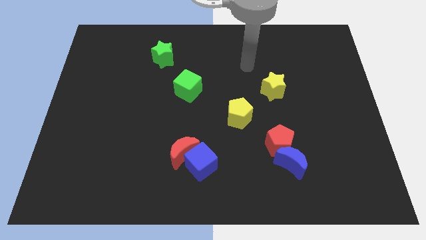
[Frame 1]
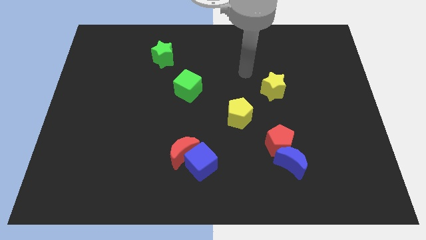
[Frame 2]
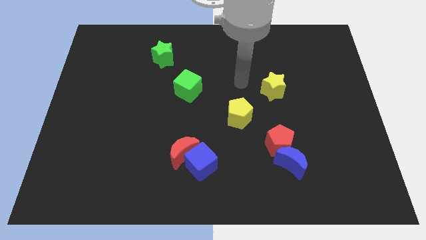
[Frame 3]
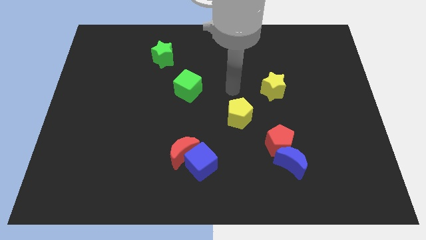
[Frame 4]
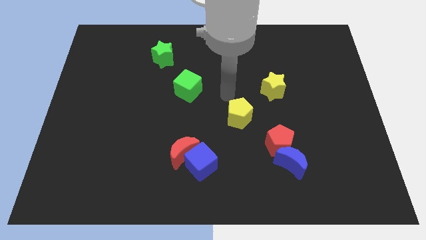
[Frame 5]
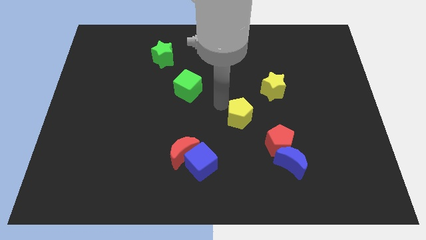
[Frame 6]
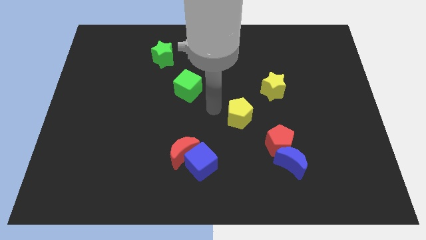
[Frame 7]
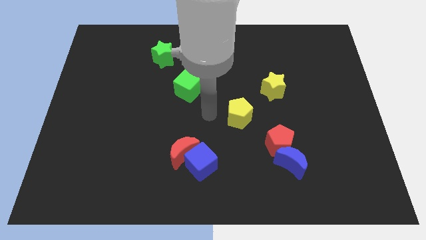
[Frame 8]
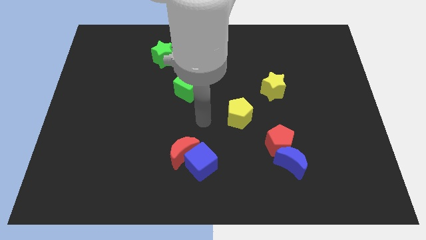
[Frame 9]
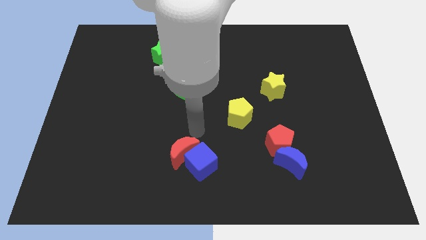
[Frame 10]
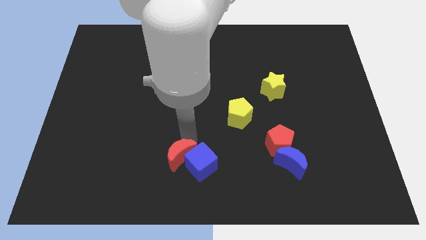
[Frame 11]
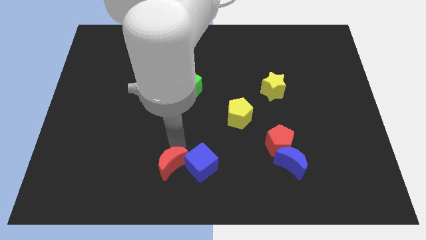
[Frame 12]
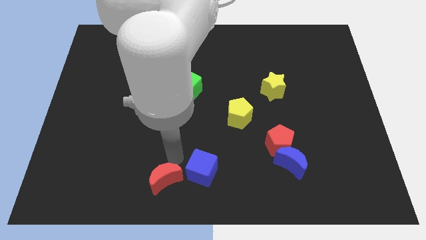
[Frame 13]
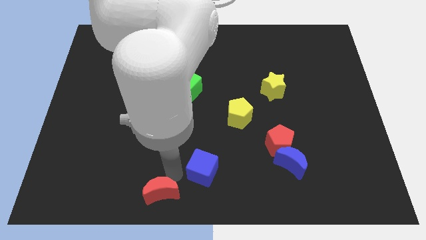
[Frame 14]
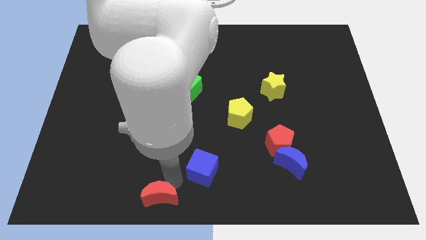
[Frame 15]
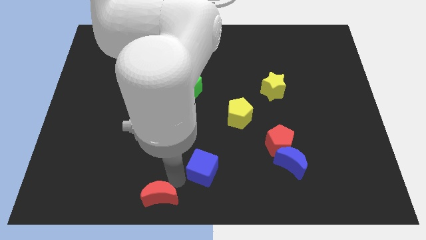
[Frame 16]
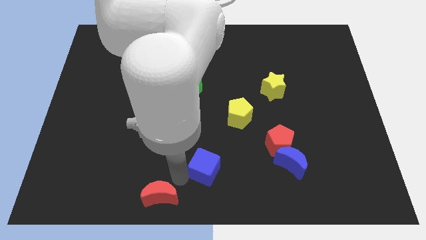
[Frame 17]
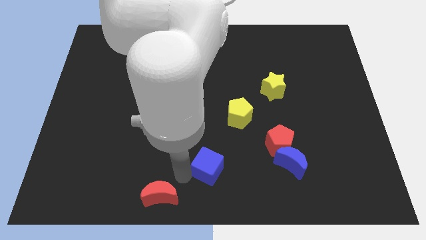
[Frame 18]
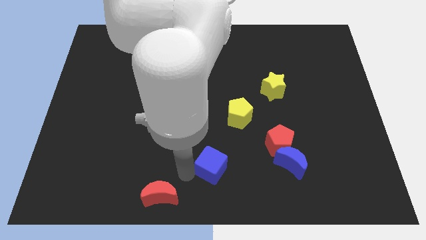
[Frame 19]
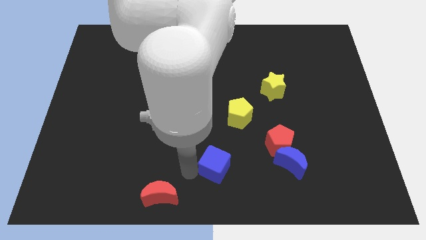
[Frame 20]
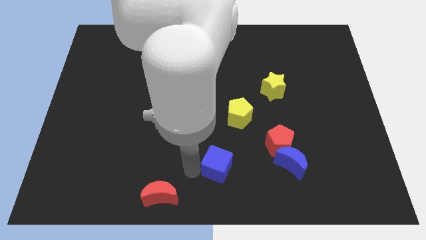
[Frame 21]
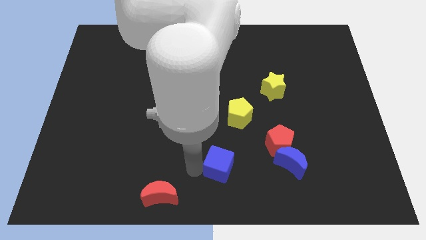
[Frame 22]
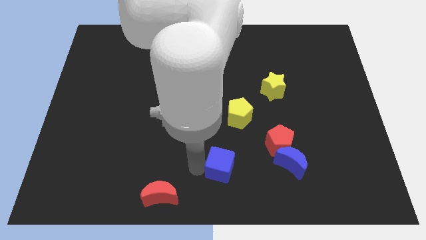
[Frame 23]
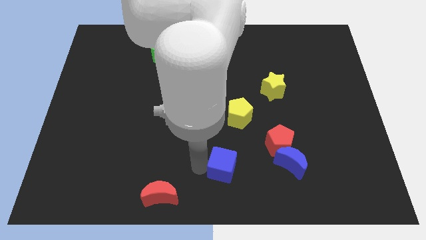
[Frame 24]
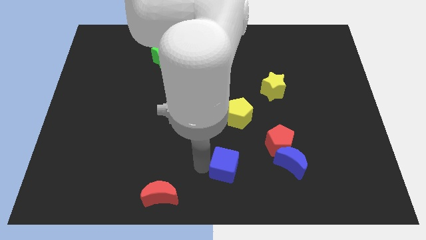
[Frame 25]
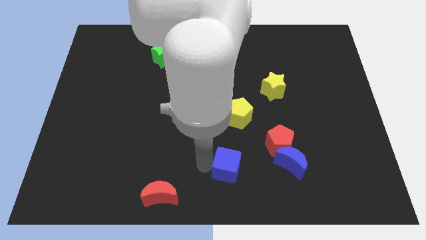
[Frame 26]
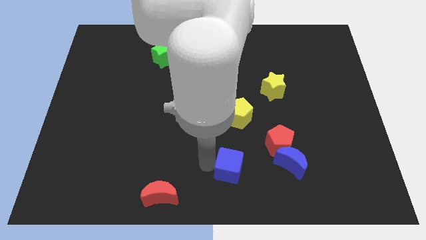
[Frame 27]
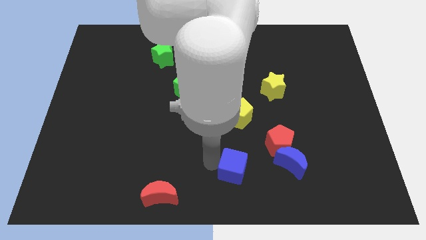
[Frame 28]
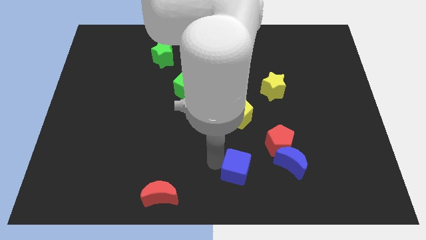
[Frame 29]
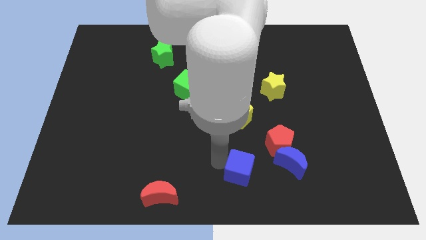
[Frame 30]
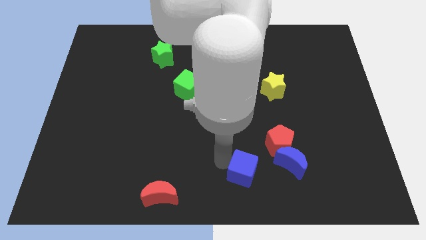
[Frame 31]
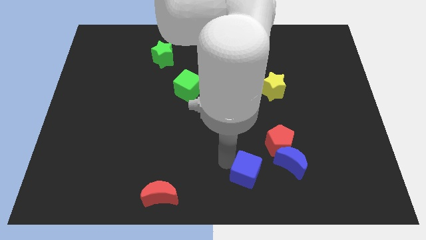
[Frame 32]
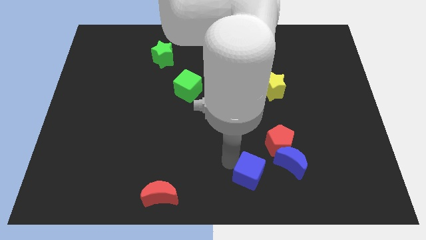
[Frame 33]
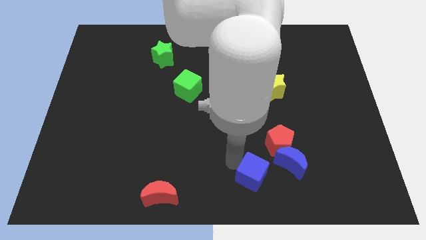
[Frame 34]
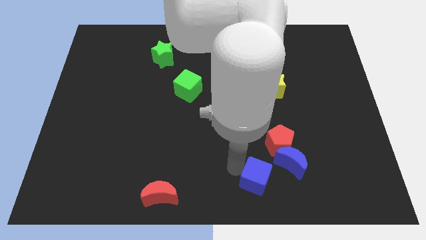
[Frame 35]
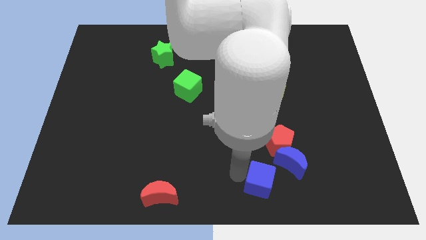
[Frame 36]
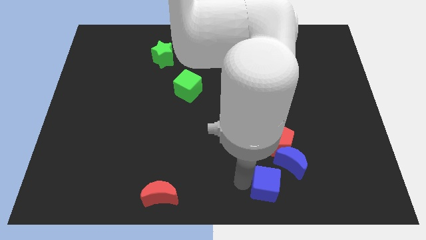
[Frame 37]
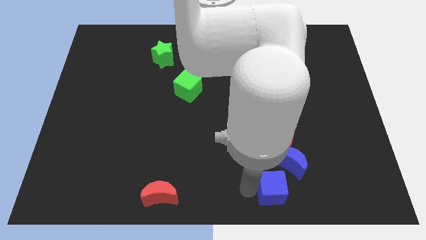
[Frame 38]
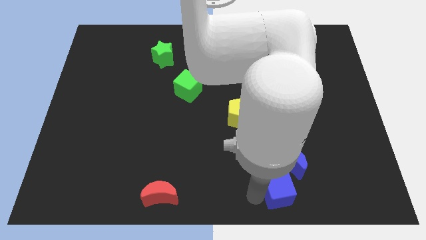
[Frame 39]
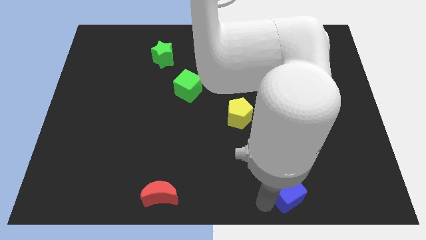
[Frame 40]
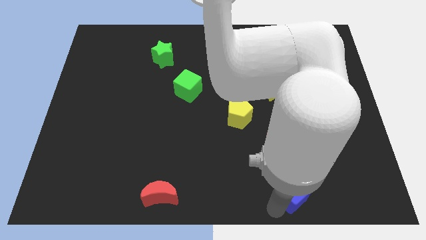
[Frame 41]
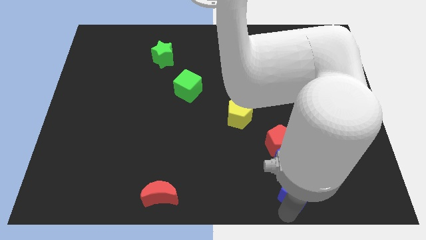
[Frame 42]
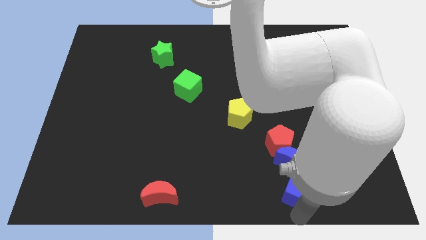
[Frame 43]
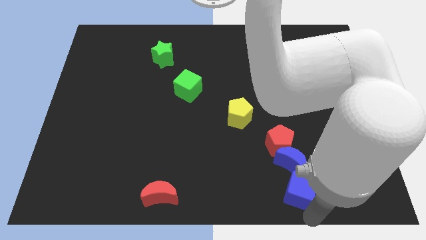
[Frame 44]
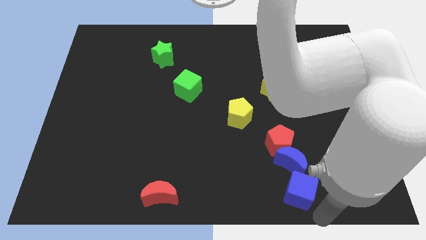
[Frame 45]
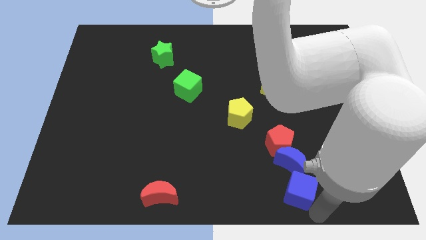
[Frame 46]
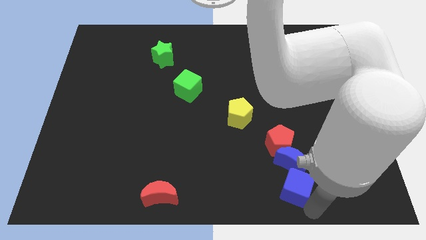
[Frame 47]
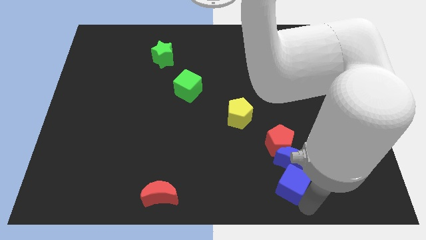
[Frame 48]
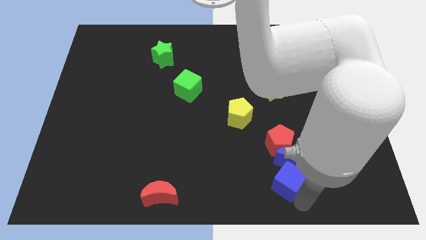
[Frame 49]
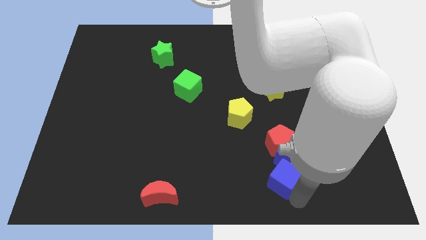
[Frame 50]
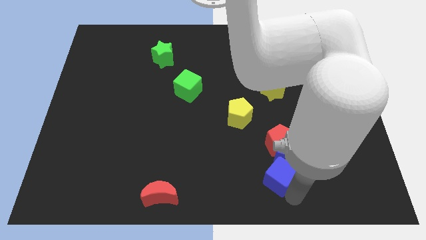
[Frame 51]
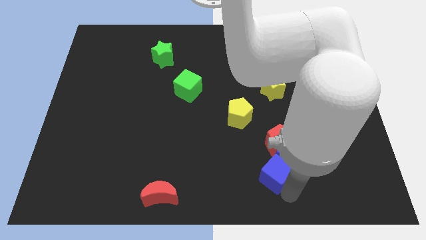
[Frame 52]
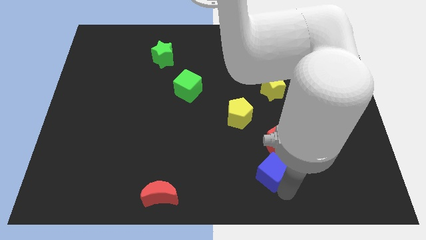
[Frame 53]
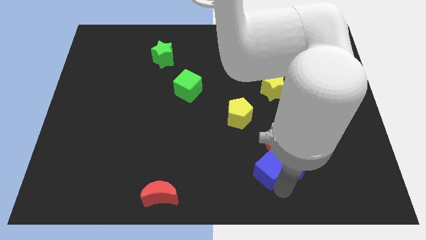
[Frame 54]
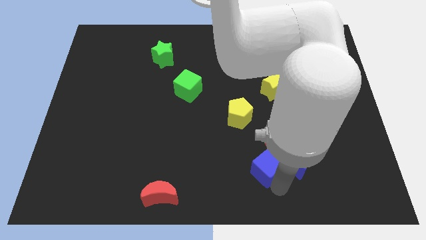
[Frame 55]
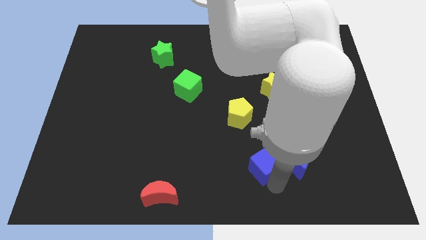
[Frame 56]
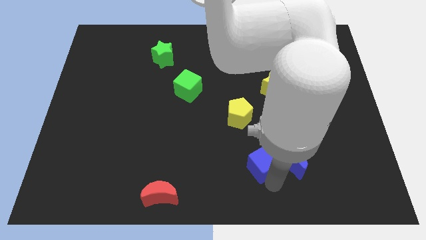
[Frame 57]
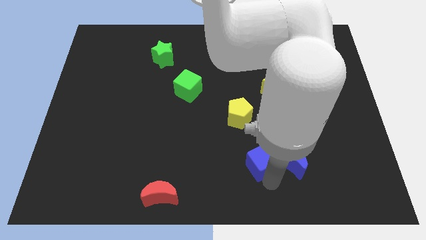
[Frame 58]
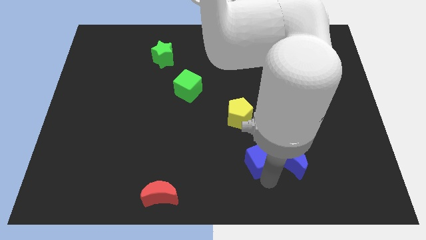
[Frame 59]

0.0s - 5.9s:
put the blue cube next to the red pentagon
